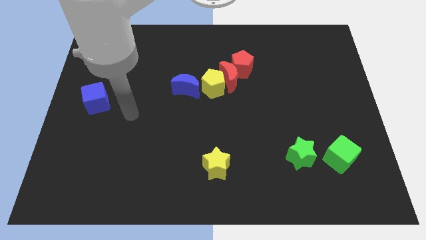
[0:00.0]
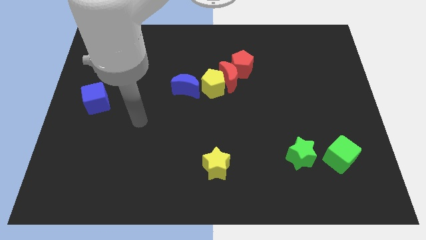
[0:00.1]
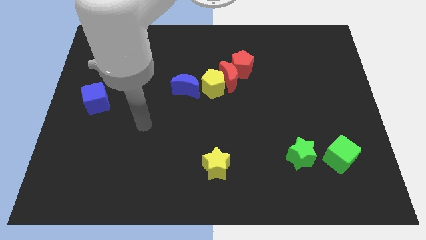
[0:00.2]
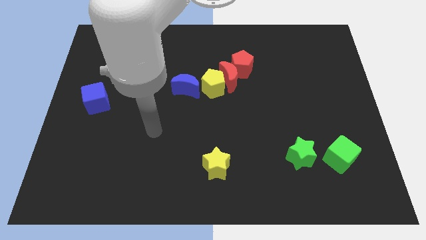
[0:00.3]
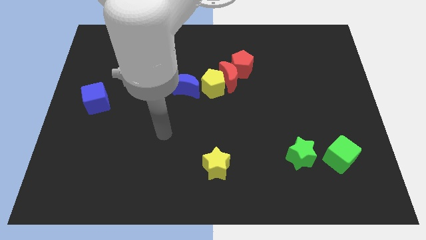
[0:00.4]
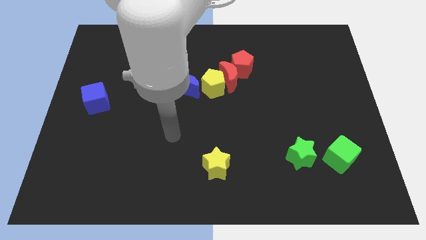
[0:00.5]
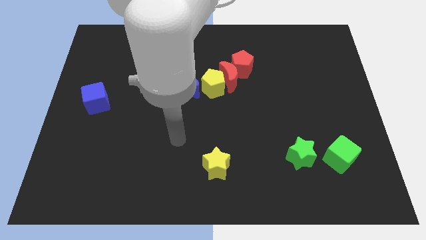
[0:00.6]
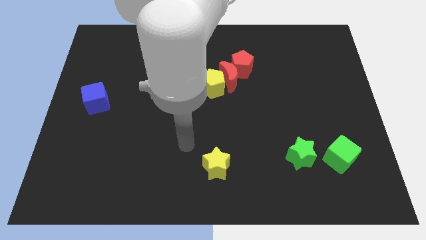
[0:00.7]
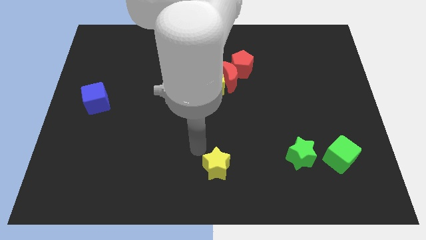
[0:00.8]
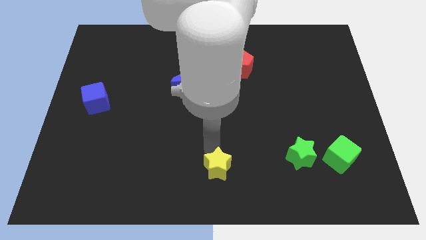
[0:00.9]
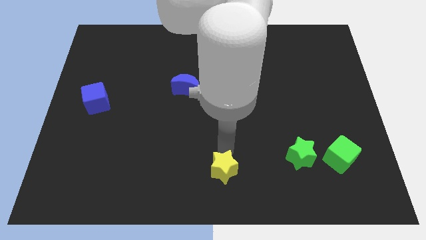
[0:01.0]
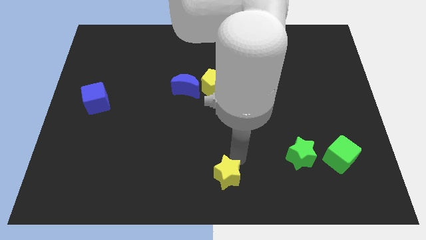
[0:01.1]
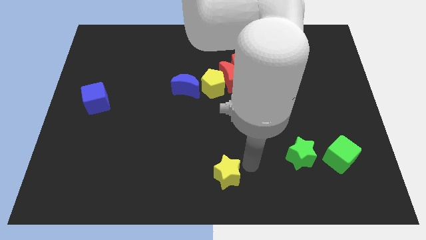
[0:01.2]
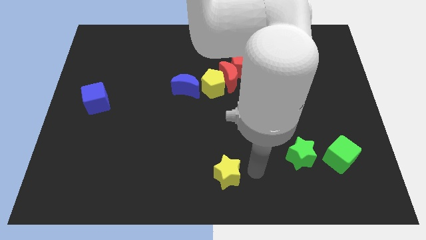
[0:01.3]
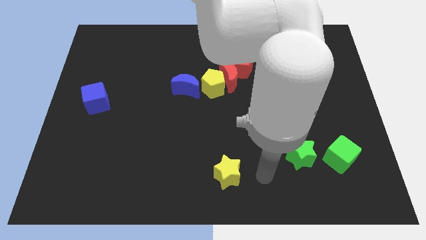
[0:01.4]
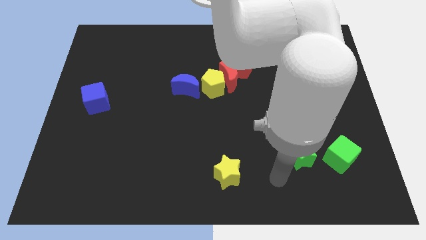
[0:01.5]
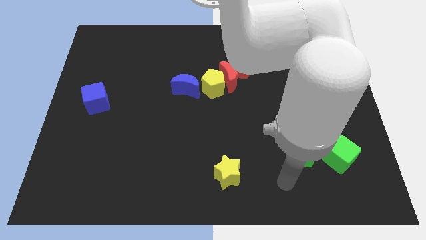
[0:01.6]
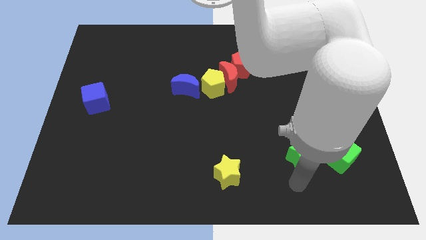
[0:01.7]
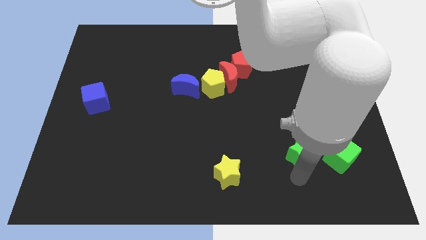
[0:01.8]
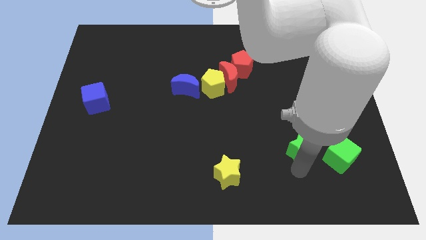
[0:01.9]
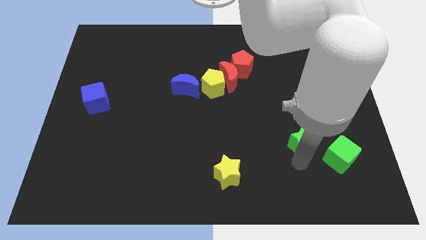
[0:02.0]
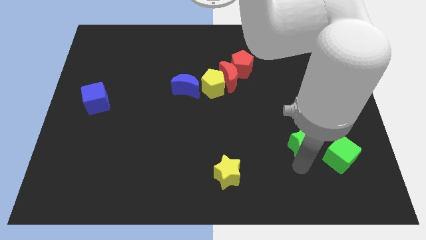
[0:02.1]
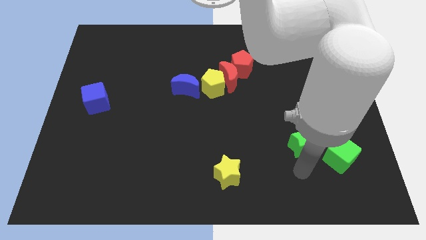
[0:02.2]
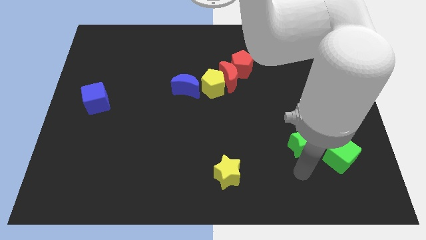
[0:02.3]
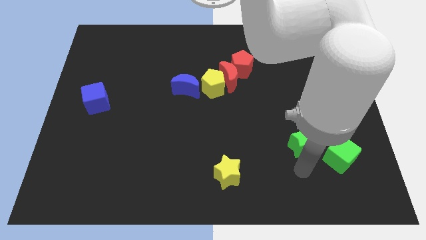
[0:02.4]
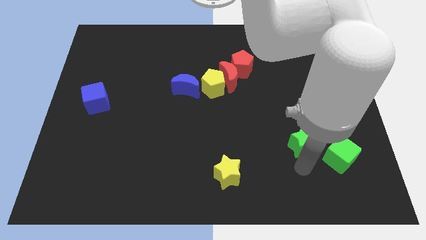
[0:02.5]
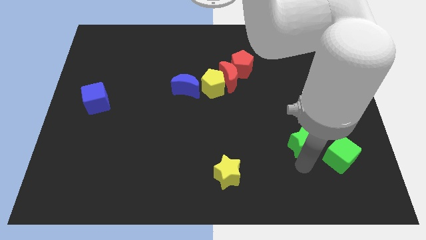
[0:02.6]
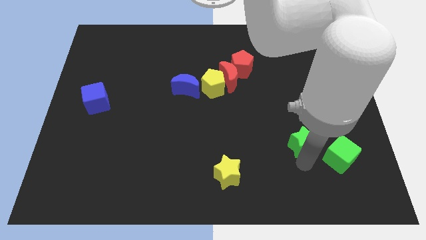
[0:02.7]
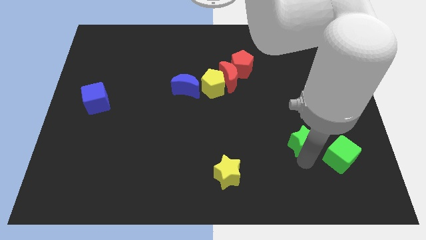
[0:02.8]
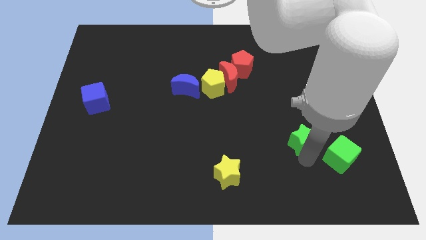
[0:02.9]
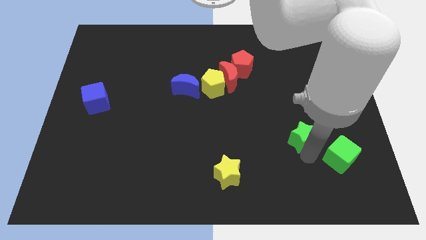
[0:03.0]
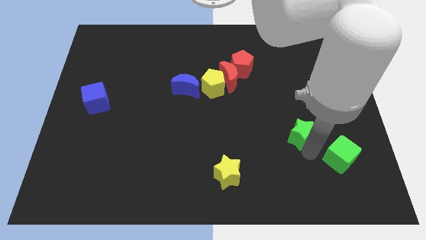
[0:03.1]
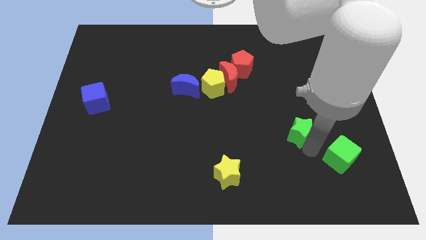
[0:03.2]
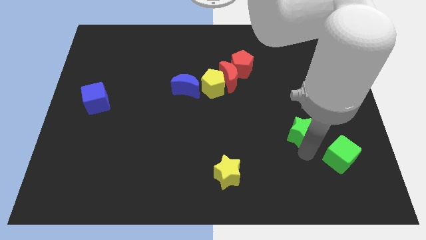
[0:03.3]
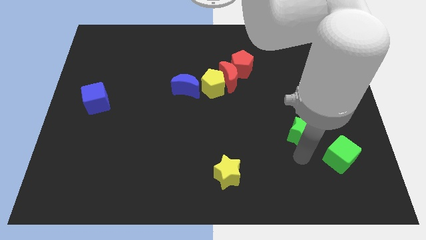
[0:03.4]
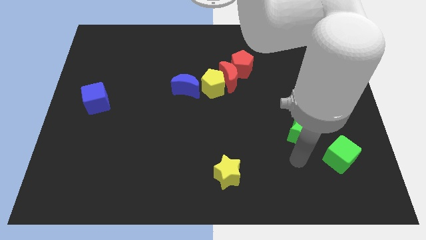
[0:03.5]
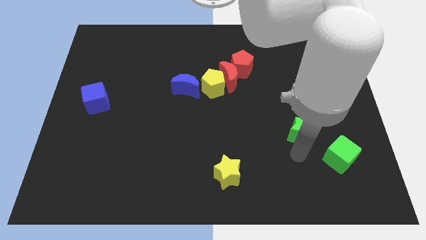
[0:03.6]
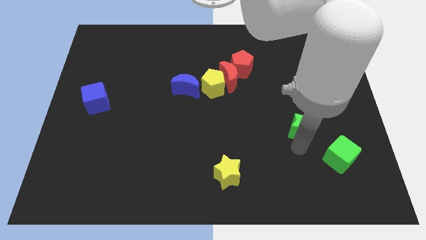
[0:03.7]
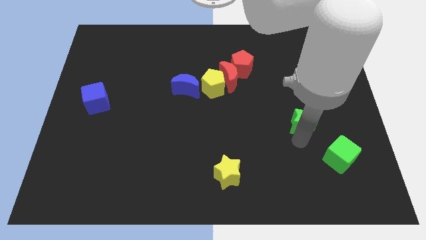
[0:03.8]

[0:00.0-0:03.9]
slightly slide the green star upwards

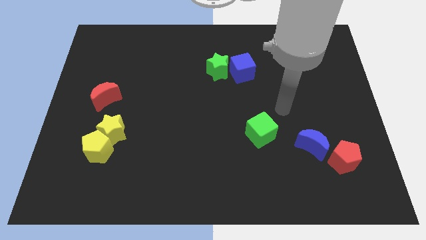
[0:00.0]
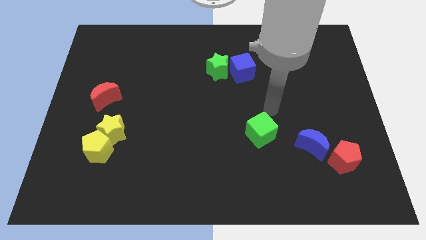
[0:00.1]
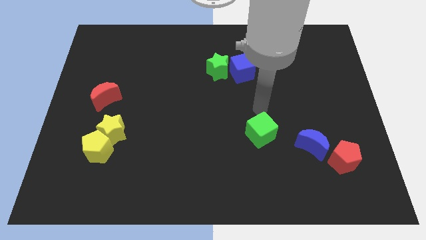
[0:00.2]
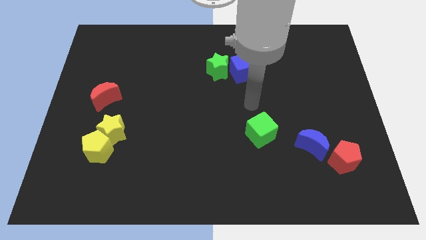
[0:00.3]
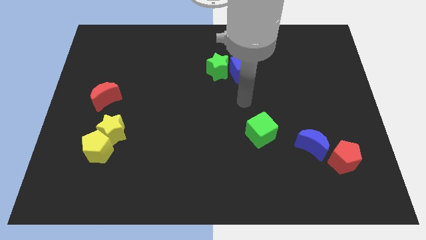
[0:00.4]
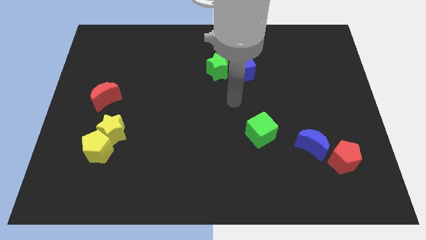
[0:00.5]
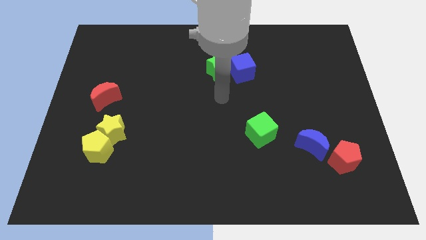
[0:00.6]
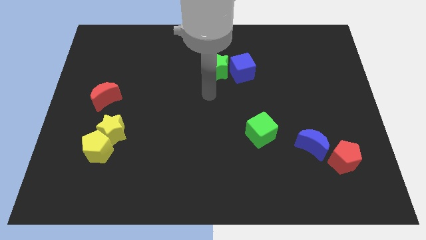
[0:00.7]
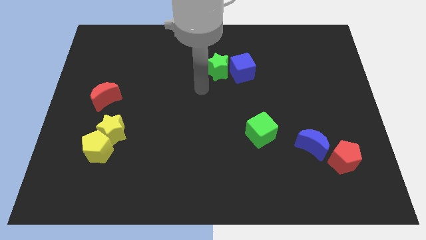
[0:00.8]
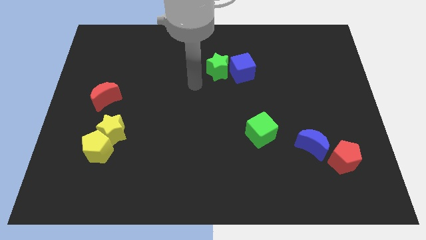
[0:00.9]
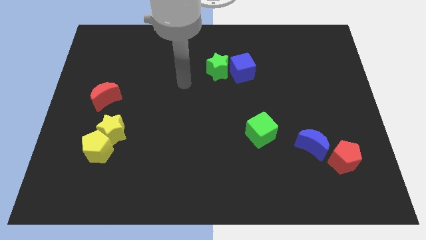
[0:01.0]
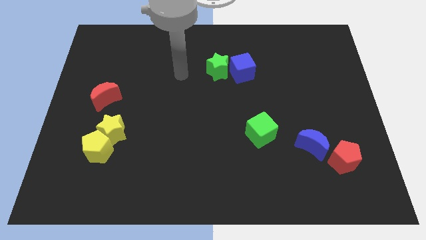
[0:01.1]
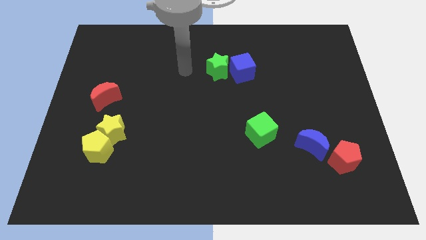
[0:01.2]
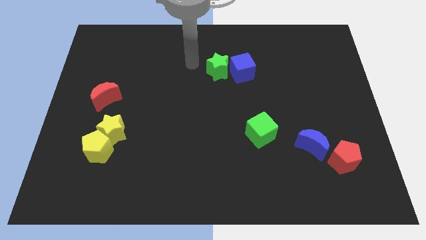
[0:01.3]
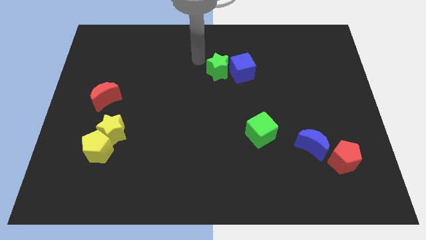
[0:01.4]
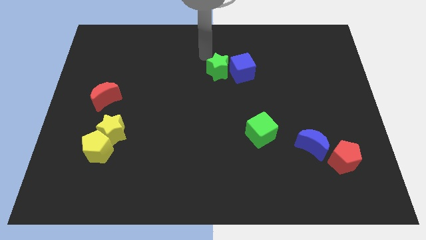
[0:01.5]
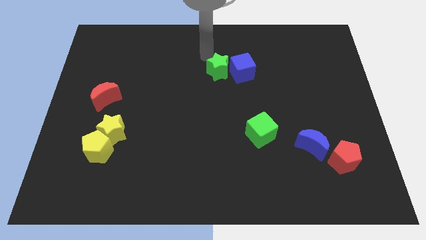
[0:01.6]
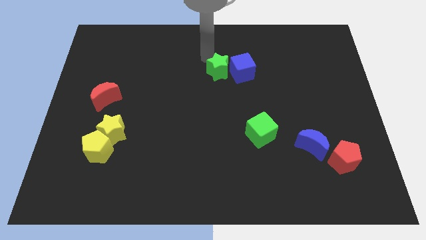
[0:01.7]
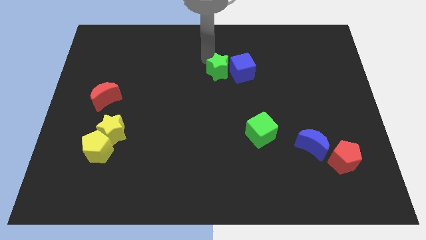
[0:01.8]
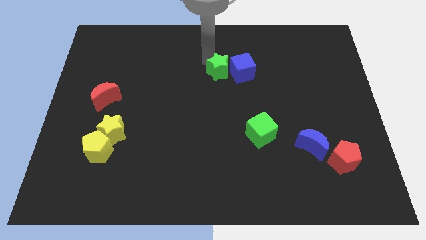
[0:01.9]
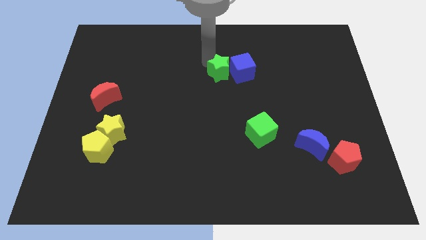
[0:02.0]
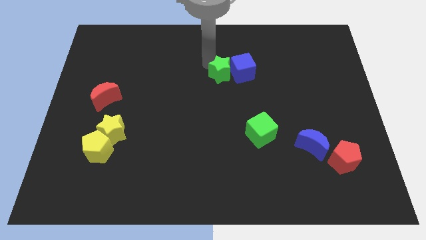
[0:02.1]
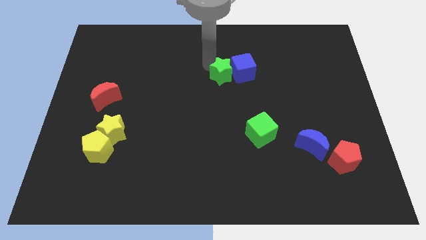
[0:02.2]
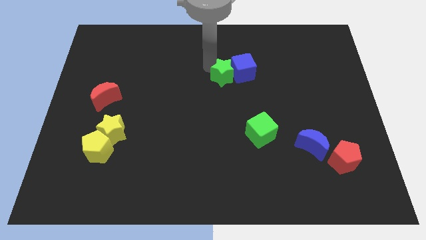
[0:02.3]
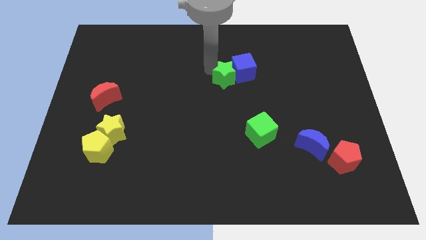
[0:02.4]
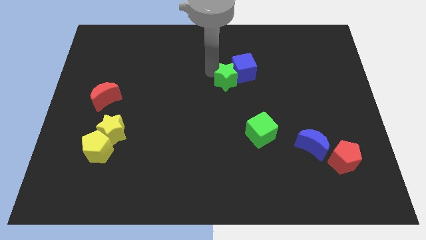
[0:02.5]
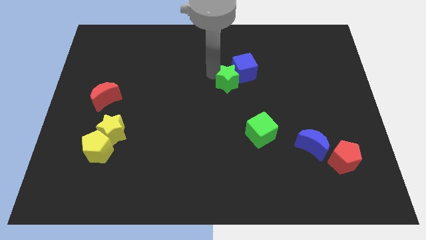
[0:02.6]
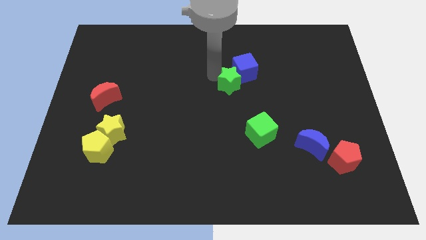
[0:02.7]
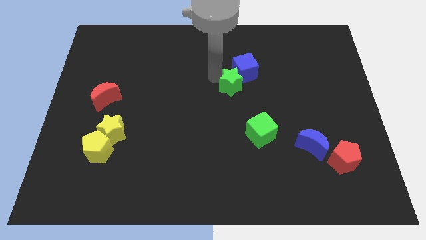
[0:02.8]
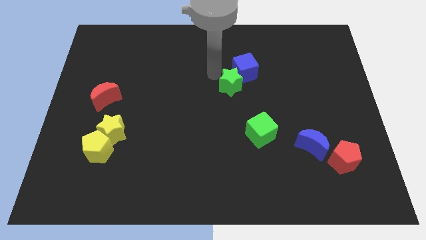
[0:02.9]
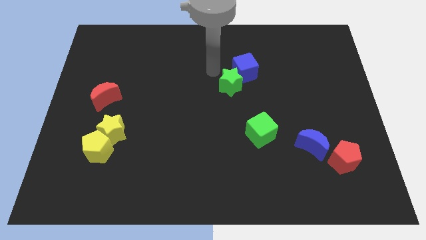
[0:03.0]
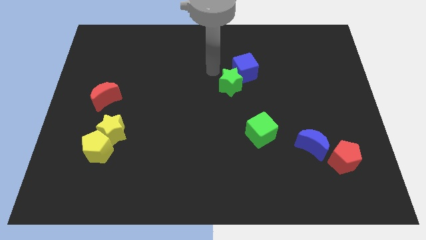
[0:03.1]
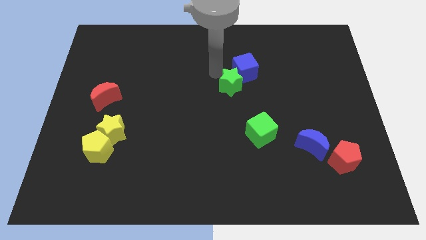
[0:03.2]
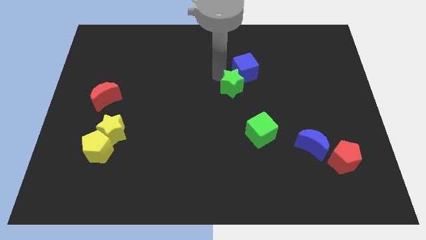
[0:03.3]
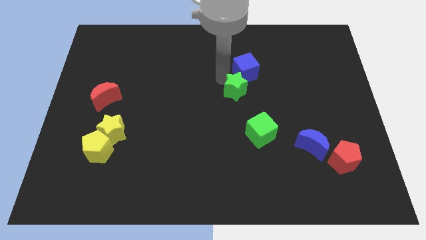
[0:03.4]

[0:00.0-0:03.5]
push the green star a little downwards and to the right

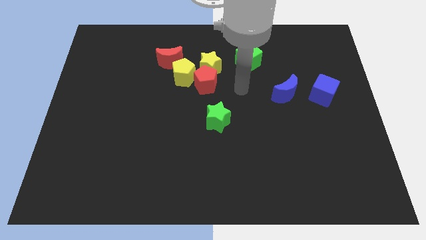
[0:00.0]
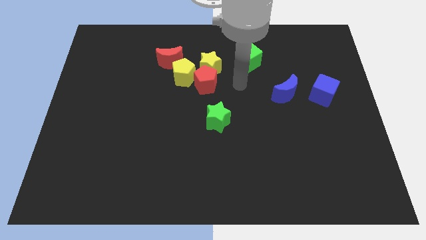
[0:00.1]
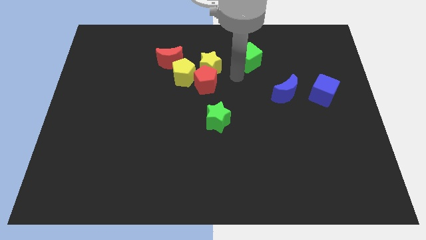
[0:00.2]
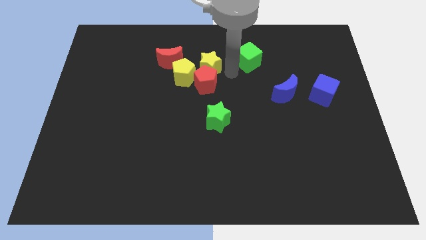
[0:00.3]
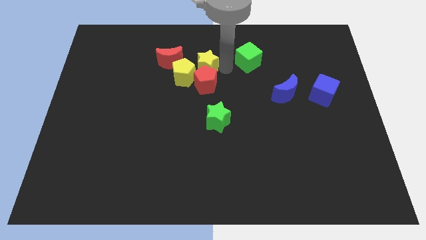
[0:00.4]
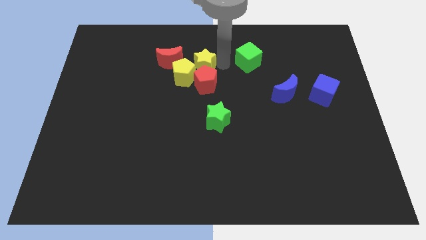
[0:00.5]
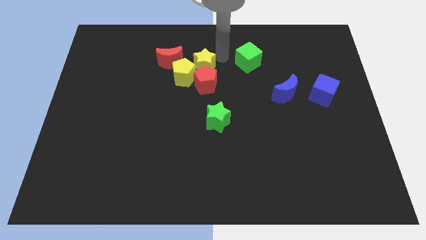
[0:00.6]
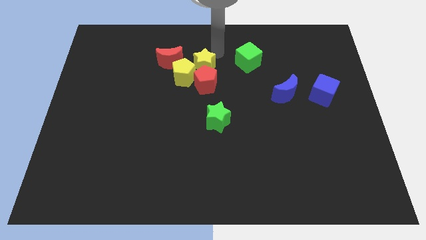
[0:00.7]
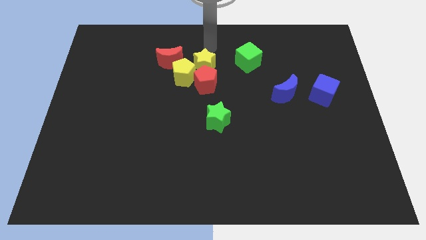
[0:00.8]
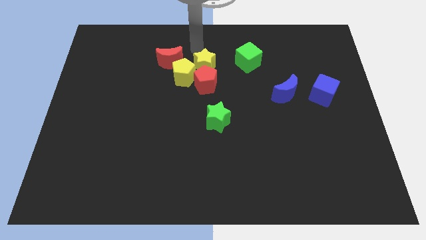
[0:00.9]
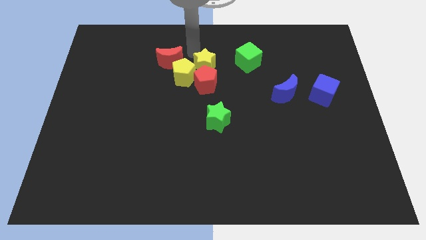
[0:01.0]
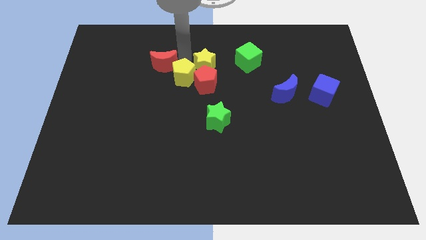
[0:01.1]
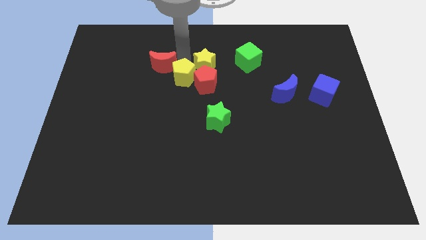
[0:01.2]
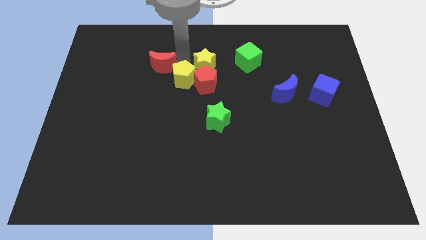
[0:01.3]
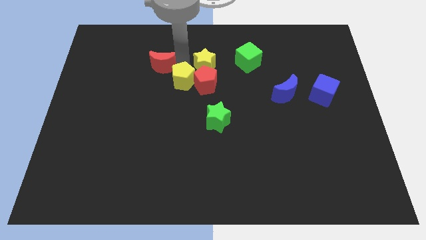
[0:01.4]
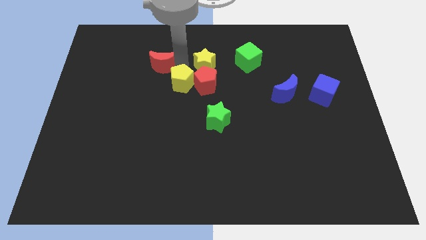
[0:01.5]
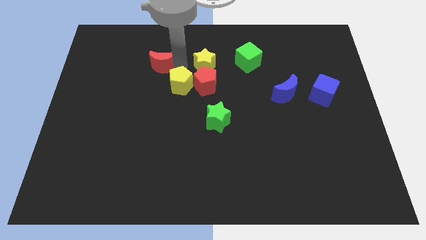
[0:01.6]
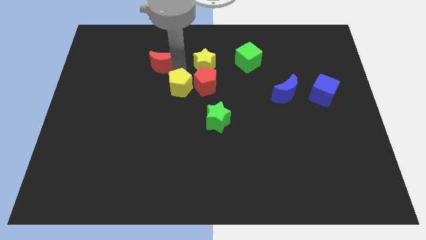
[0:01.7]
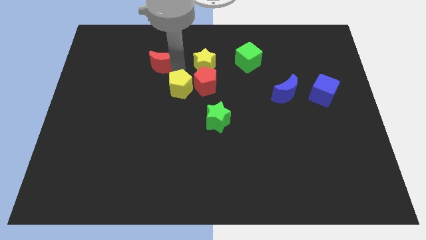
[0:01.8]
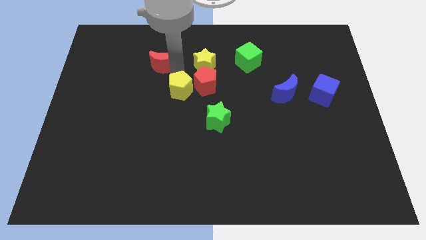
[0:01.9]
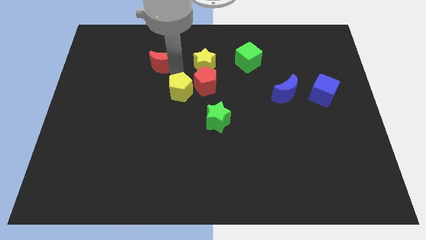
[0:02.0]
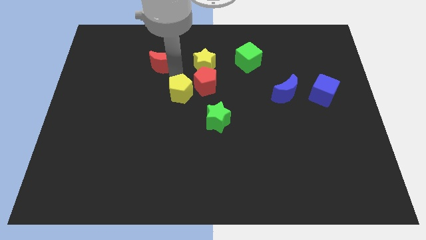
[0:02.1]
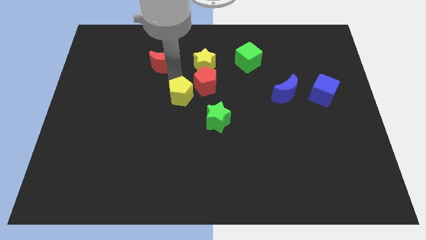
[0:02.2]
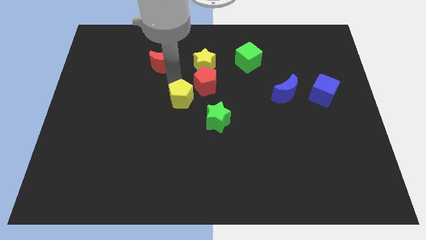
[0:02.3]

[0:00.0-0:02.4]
slide the yellow pentagon somewhat downwards
